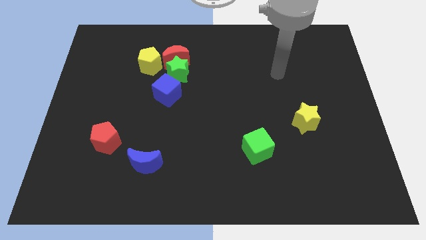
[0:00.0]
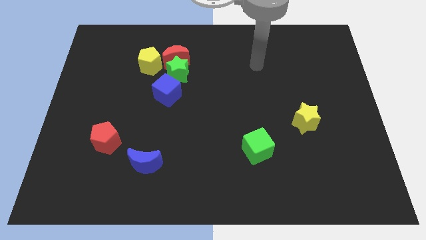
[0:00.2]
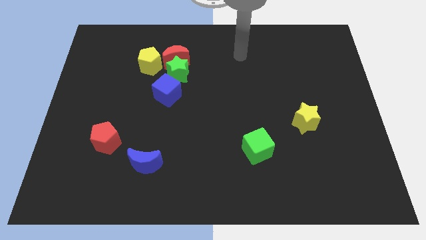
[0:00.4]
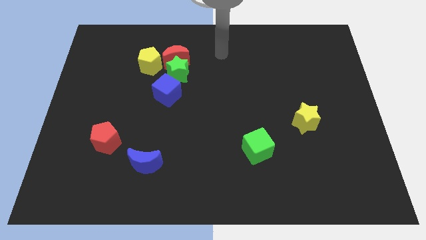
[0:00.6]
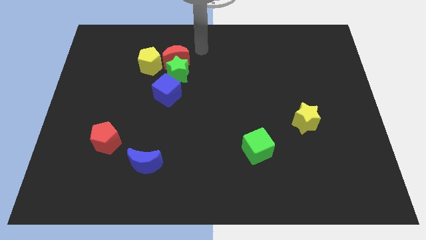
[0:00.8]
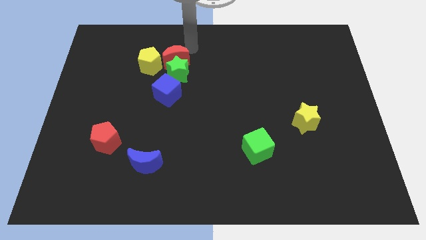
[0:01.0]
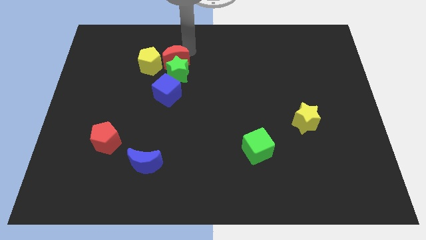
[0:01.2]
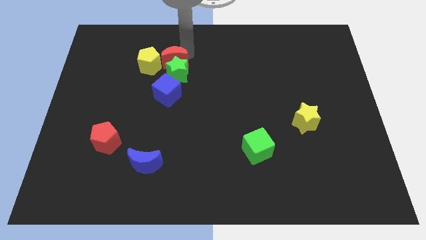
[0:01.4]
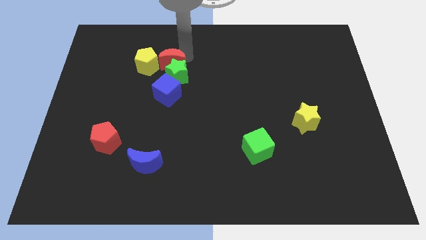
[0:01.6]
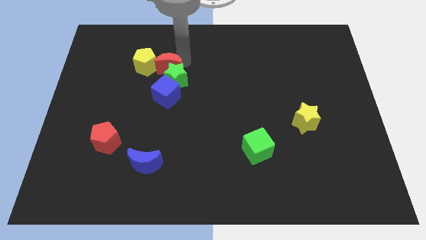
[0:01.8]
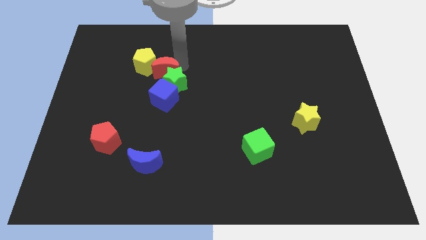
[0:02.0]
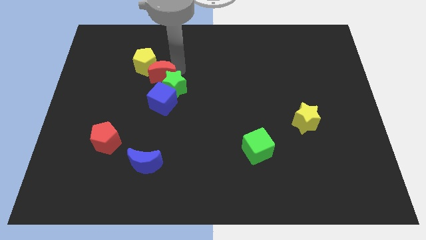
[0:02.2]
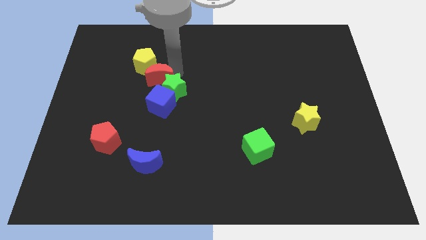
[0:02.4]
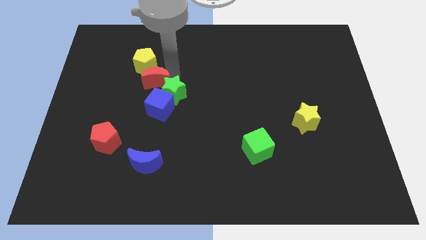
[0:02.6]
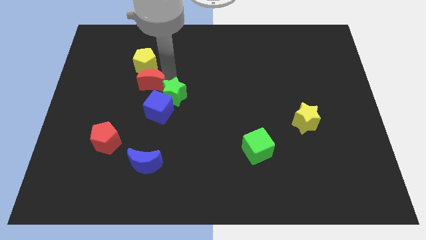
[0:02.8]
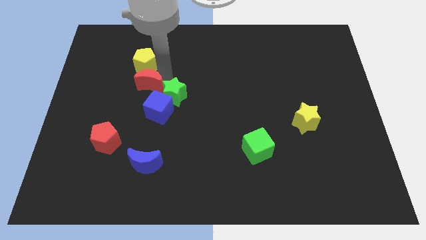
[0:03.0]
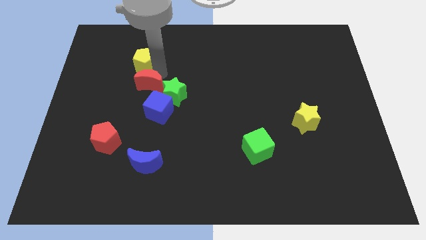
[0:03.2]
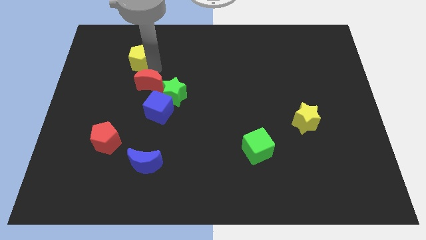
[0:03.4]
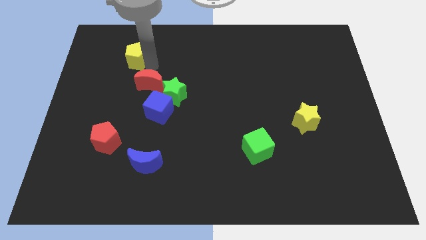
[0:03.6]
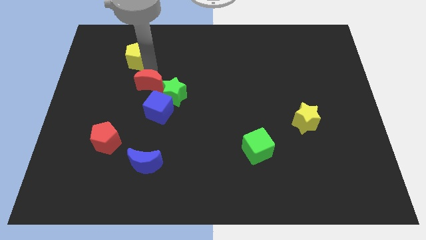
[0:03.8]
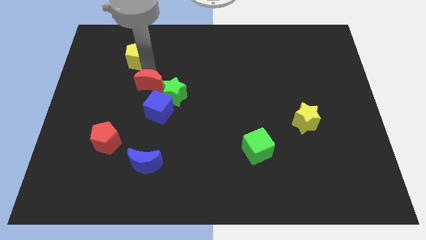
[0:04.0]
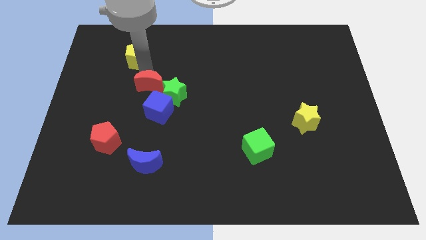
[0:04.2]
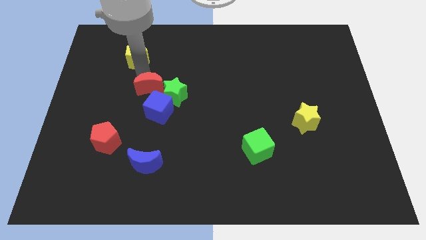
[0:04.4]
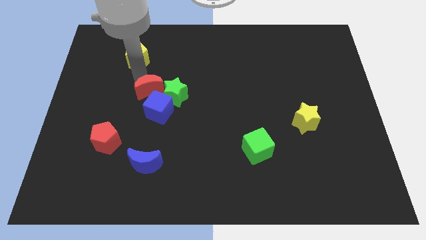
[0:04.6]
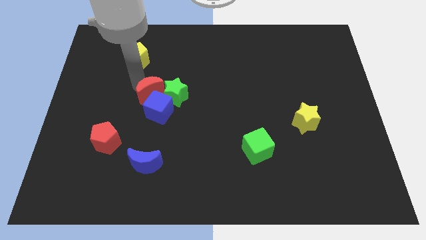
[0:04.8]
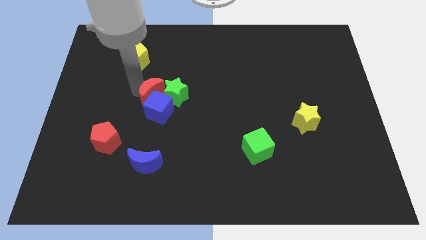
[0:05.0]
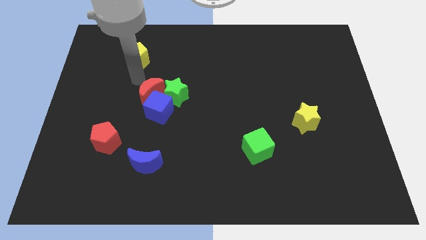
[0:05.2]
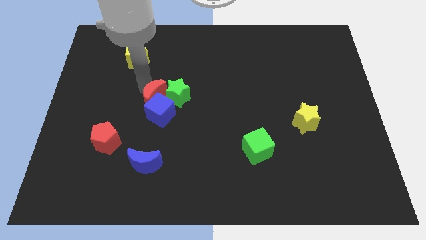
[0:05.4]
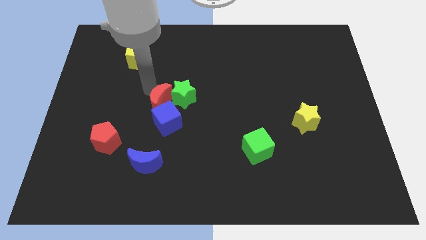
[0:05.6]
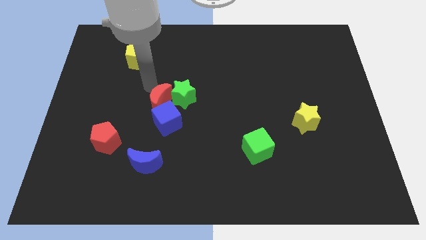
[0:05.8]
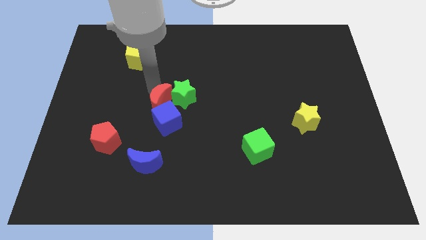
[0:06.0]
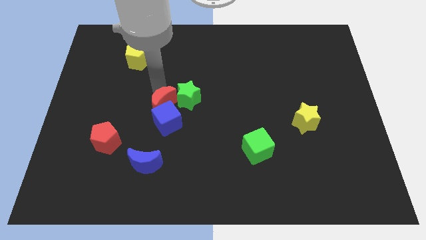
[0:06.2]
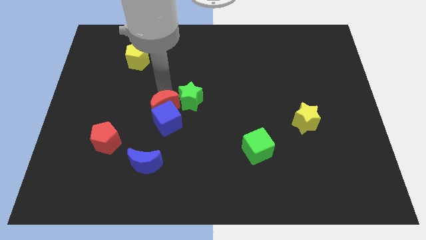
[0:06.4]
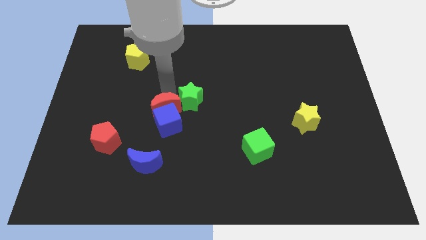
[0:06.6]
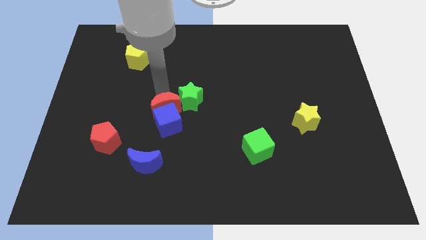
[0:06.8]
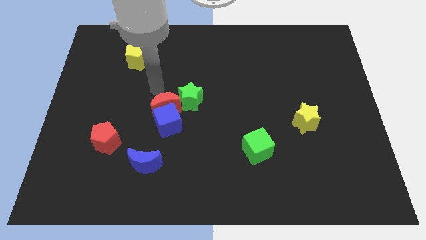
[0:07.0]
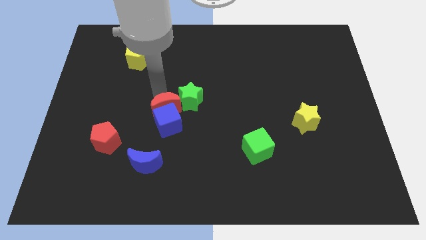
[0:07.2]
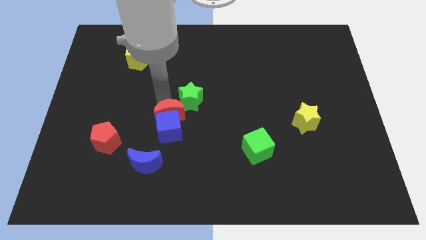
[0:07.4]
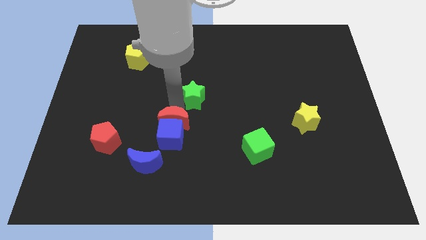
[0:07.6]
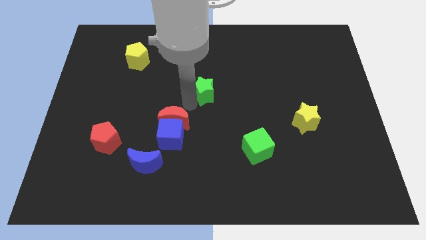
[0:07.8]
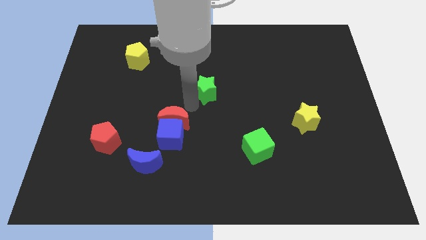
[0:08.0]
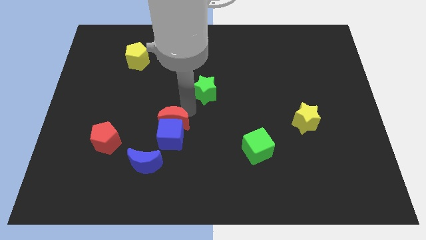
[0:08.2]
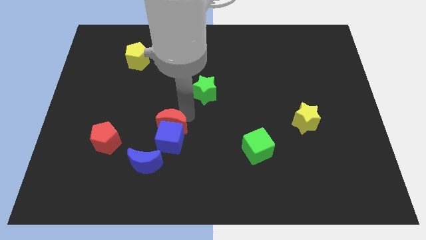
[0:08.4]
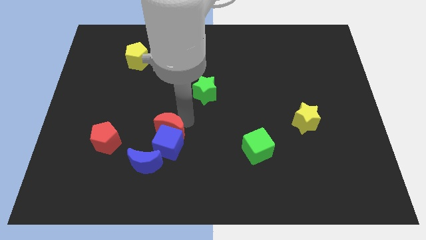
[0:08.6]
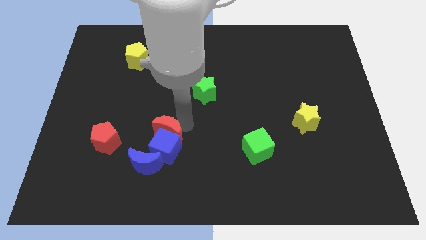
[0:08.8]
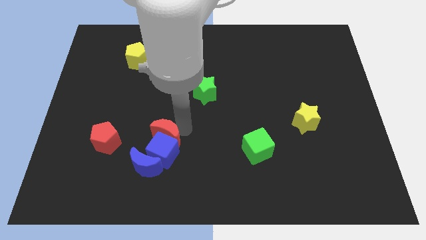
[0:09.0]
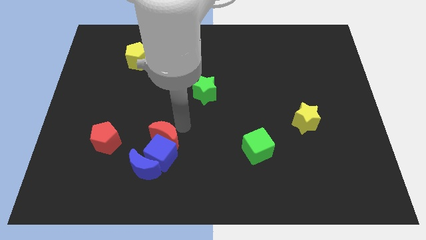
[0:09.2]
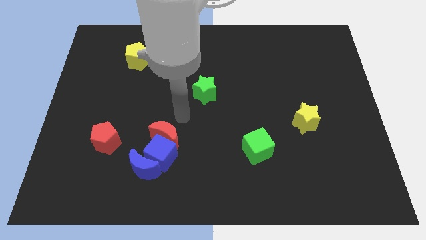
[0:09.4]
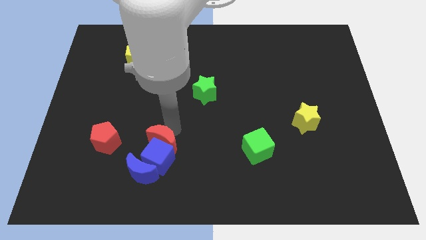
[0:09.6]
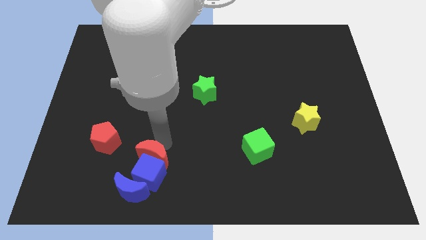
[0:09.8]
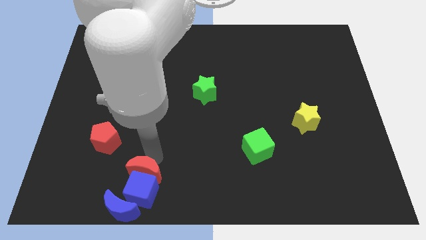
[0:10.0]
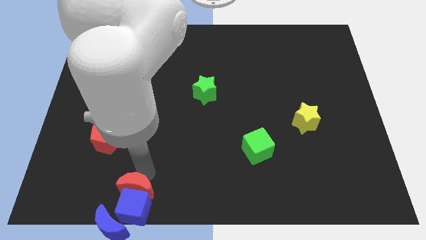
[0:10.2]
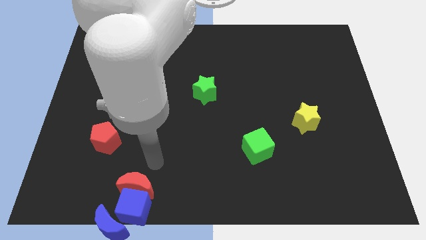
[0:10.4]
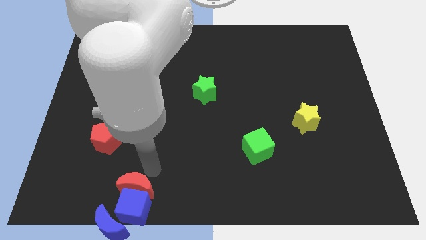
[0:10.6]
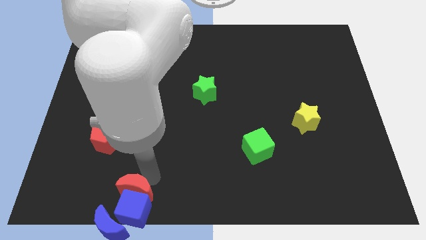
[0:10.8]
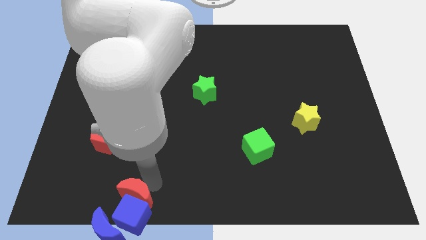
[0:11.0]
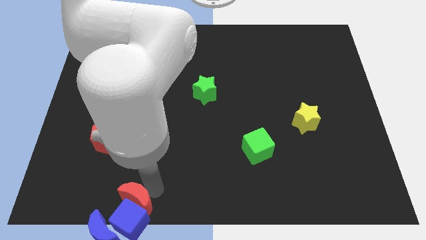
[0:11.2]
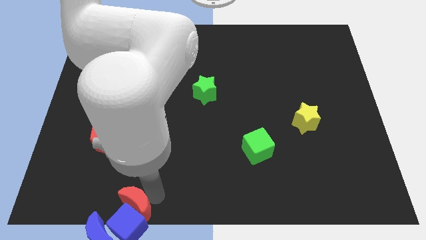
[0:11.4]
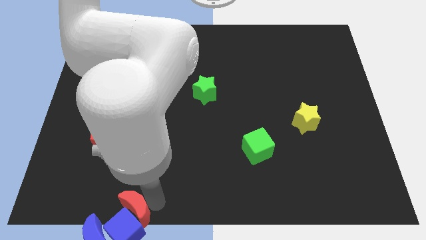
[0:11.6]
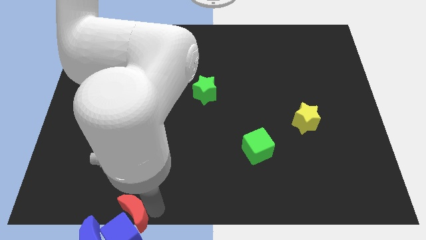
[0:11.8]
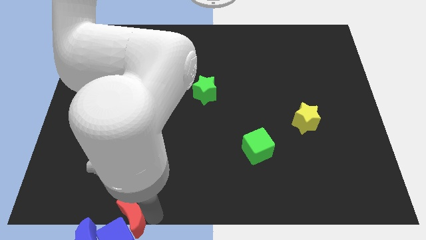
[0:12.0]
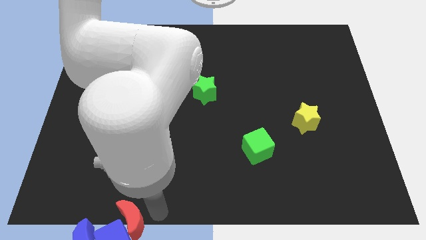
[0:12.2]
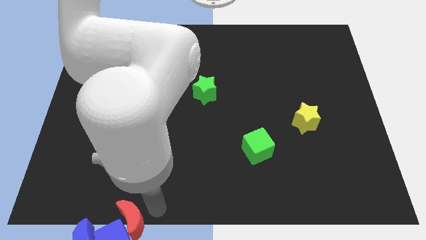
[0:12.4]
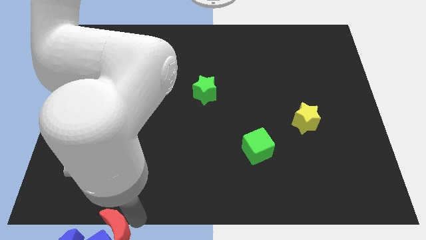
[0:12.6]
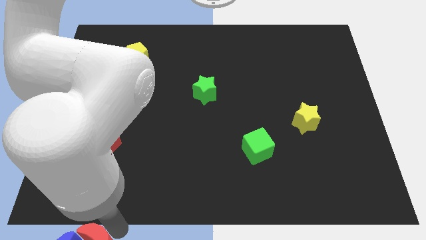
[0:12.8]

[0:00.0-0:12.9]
put the red moon to the blue moon

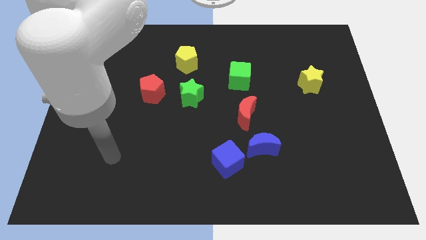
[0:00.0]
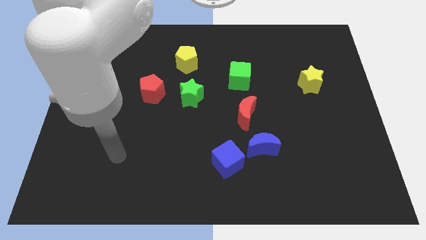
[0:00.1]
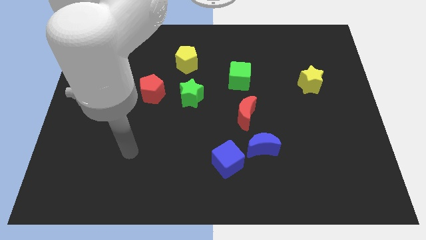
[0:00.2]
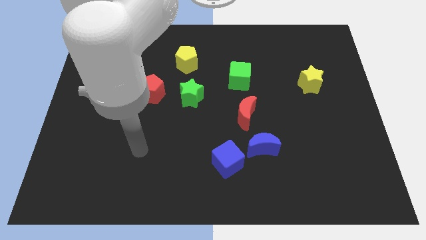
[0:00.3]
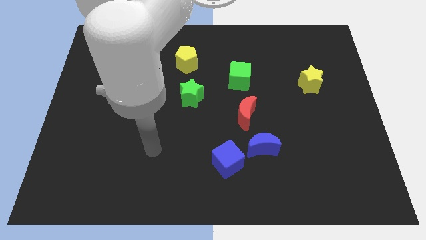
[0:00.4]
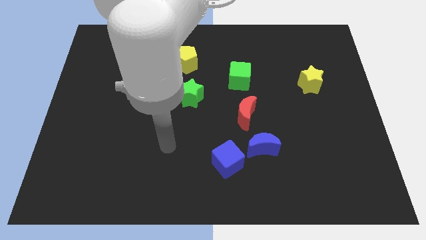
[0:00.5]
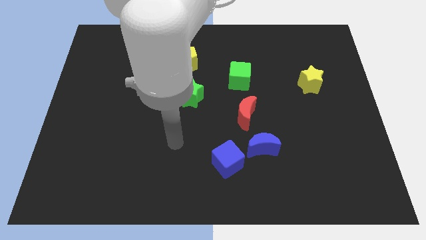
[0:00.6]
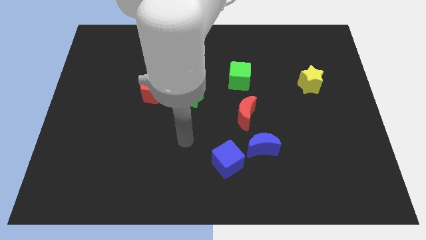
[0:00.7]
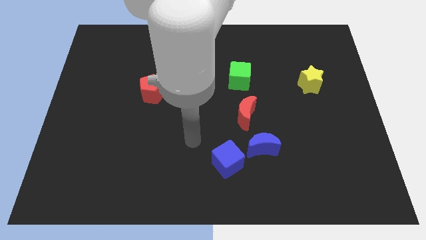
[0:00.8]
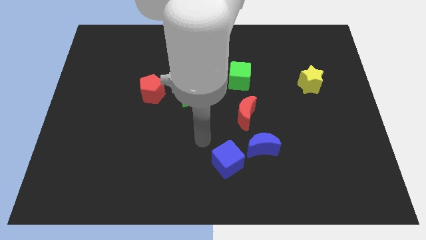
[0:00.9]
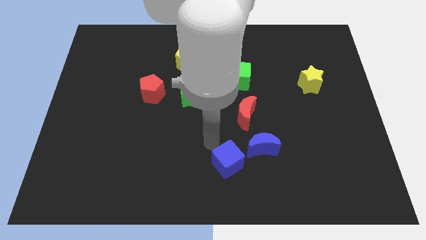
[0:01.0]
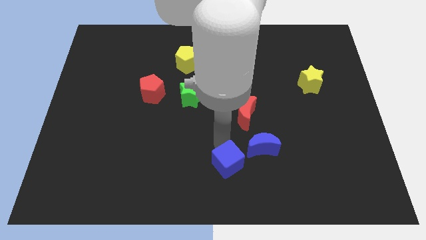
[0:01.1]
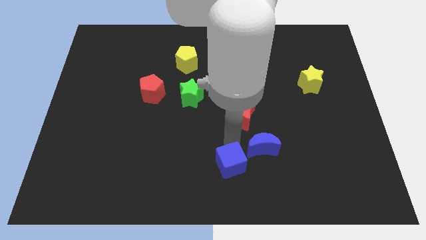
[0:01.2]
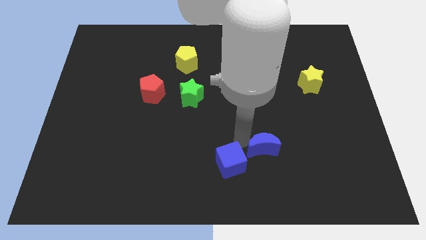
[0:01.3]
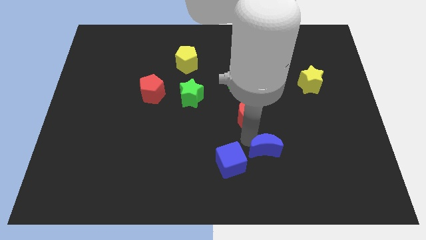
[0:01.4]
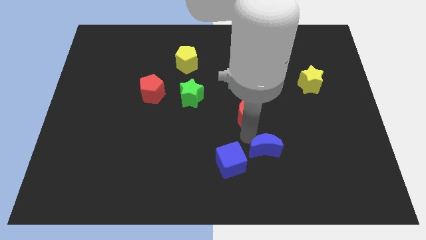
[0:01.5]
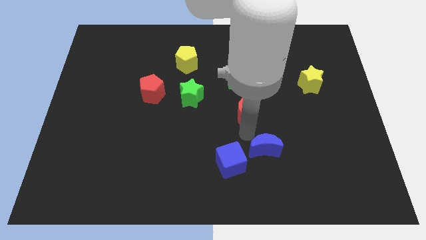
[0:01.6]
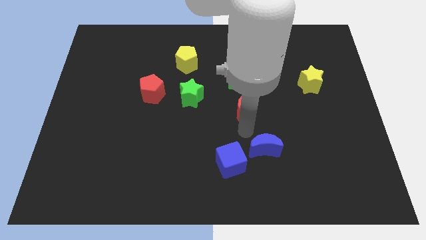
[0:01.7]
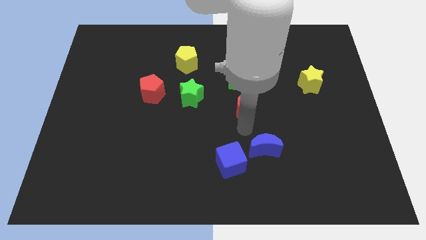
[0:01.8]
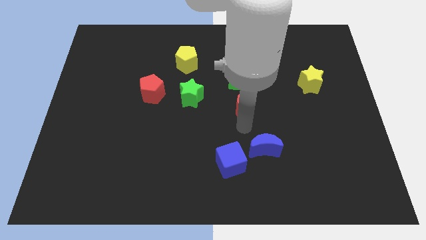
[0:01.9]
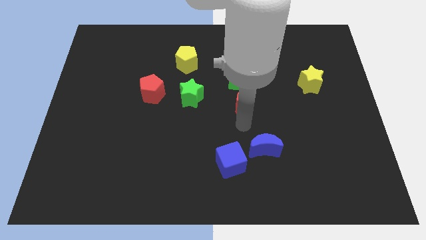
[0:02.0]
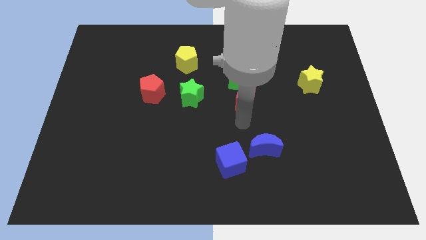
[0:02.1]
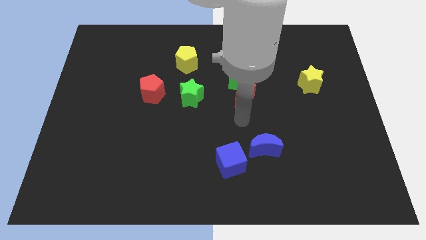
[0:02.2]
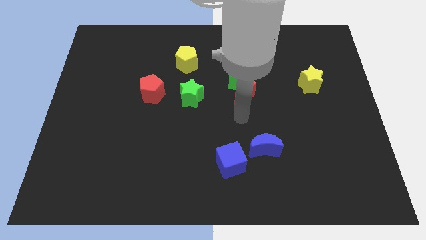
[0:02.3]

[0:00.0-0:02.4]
put the red moon towards the green cube
